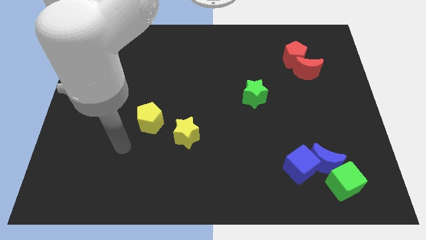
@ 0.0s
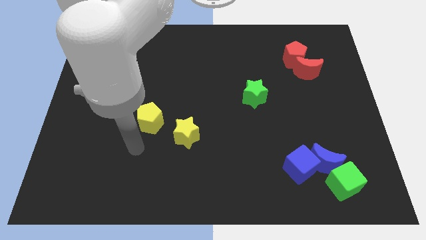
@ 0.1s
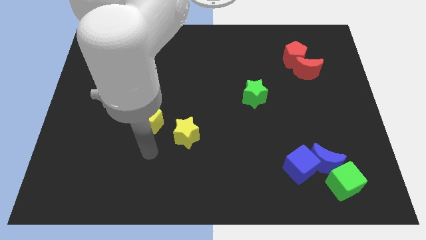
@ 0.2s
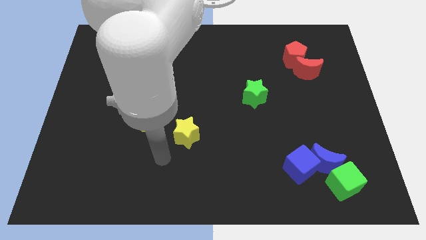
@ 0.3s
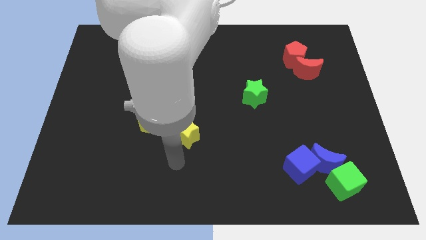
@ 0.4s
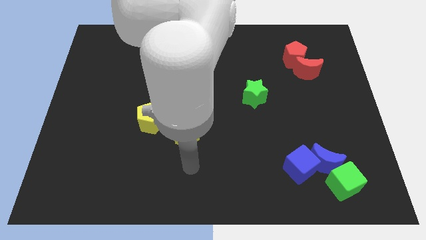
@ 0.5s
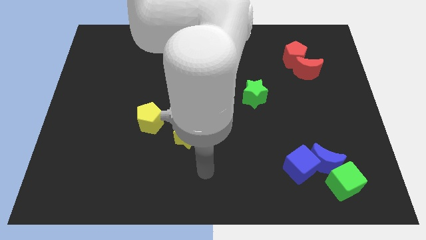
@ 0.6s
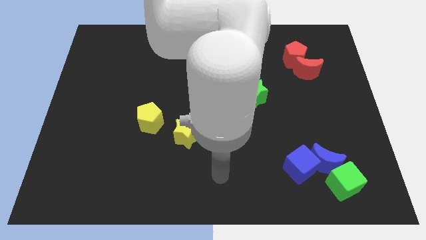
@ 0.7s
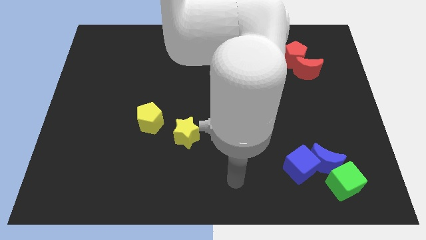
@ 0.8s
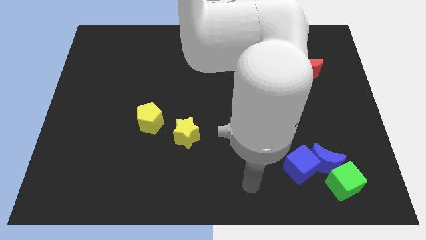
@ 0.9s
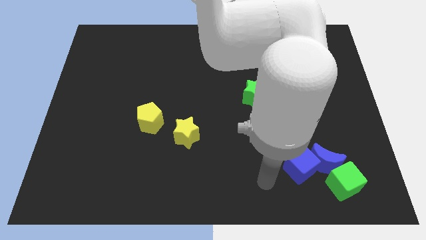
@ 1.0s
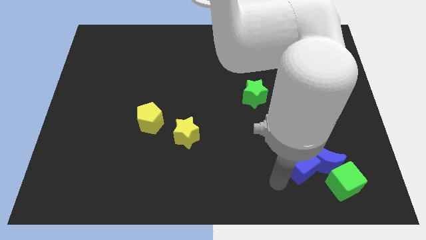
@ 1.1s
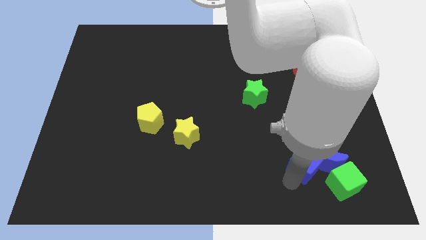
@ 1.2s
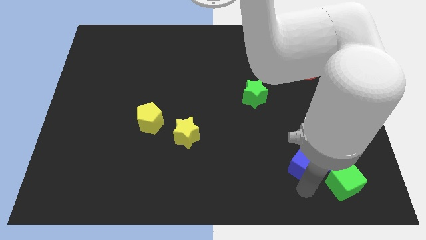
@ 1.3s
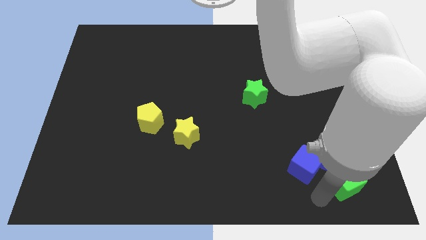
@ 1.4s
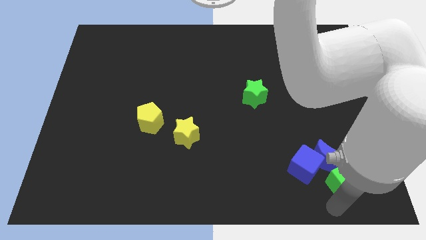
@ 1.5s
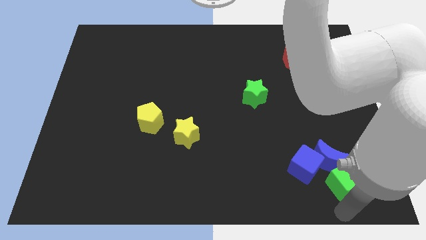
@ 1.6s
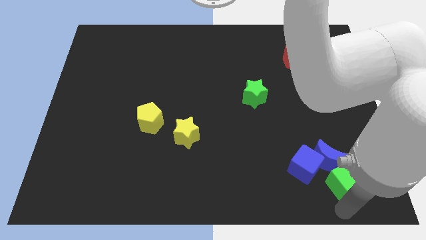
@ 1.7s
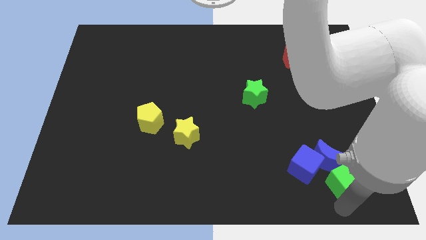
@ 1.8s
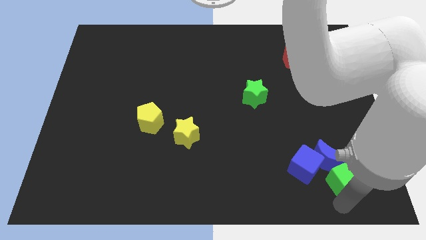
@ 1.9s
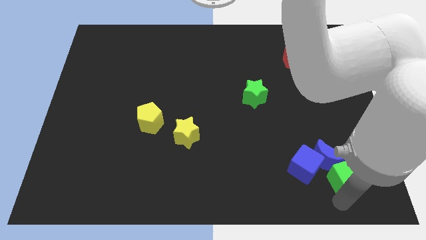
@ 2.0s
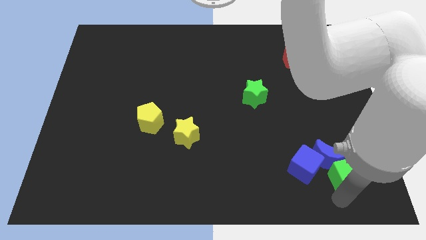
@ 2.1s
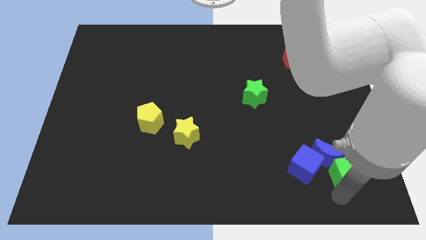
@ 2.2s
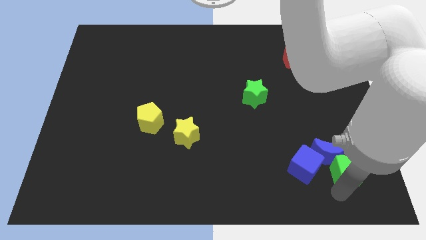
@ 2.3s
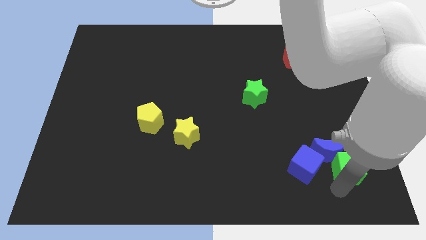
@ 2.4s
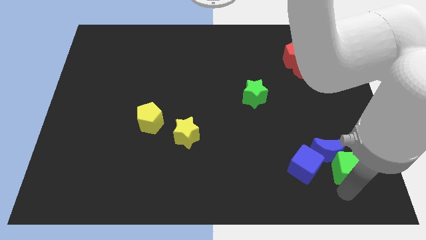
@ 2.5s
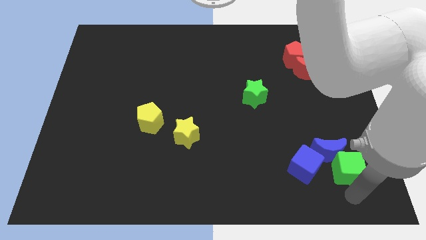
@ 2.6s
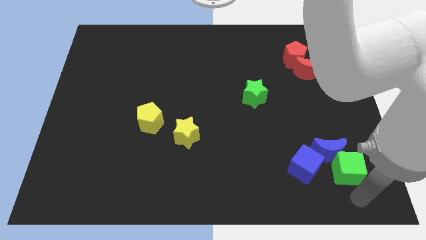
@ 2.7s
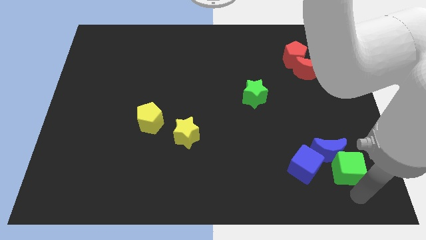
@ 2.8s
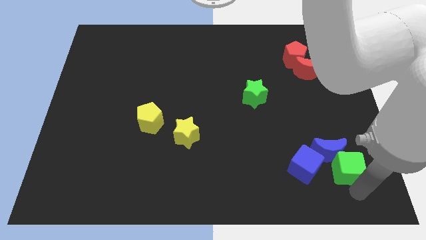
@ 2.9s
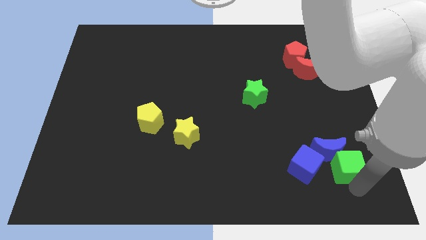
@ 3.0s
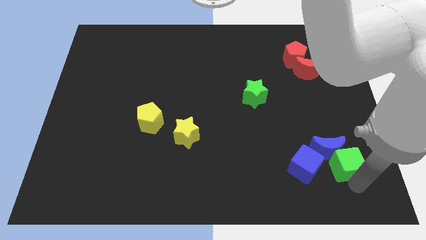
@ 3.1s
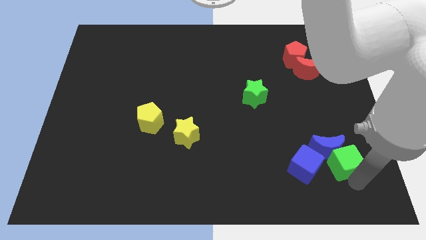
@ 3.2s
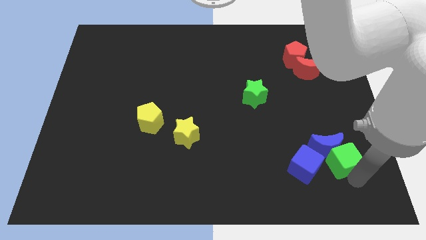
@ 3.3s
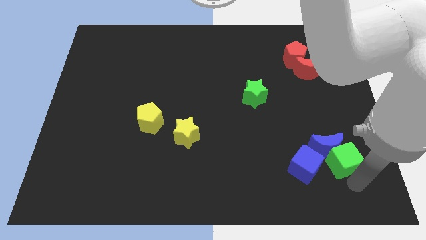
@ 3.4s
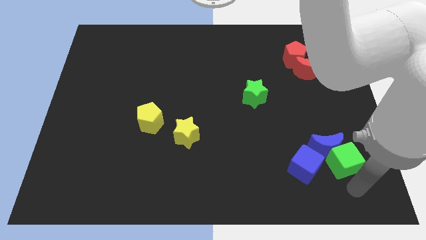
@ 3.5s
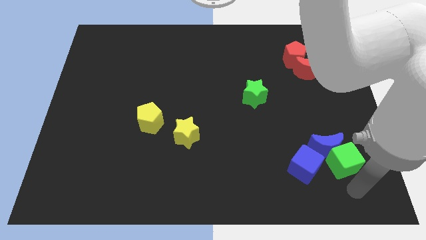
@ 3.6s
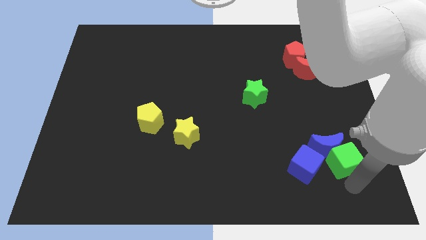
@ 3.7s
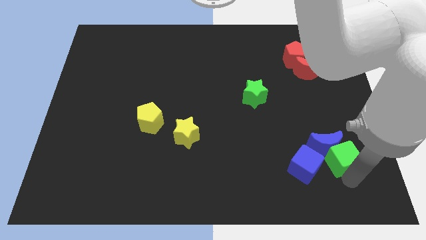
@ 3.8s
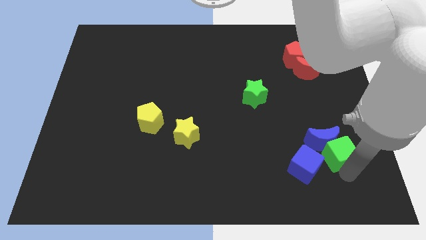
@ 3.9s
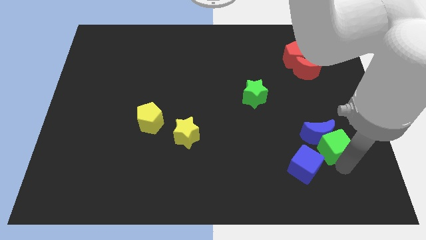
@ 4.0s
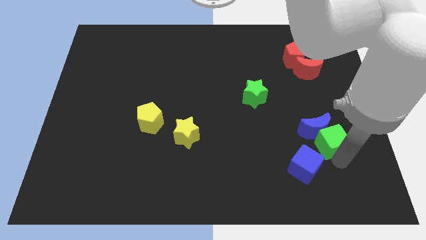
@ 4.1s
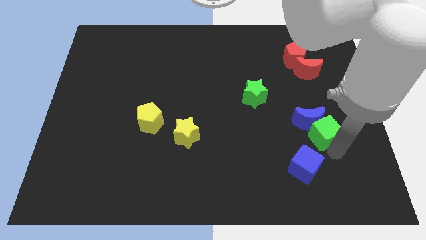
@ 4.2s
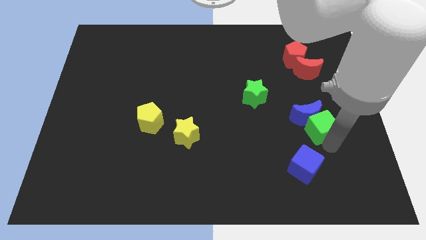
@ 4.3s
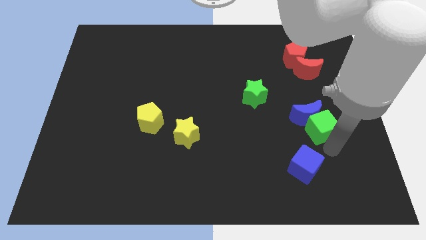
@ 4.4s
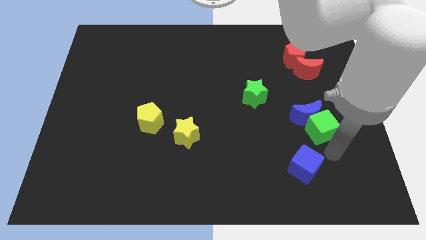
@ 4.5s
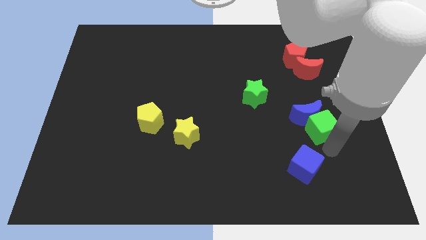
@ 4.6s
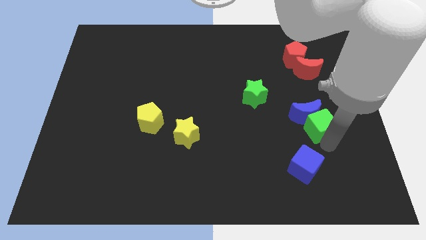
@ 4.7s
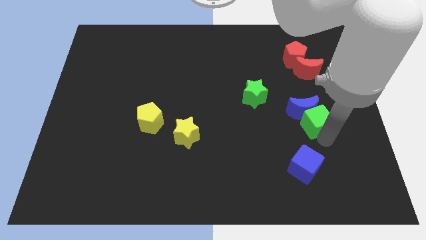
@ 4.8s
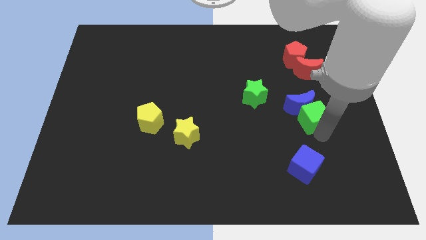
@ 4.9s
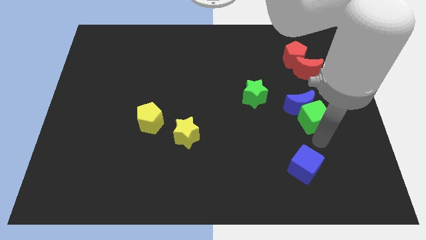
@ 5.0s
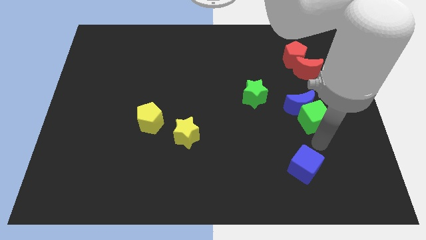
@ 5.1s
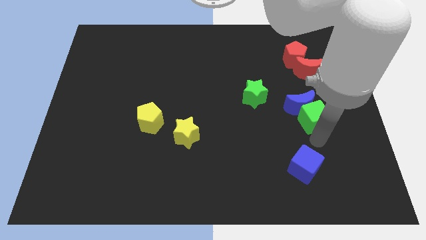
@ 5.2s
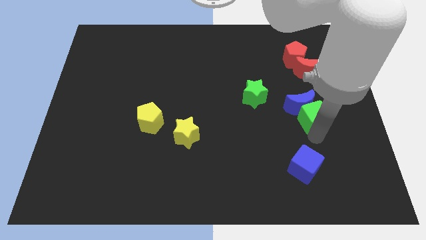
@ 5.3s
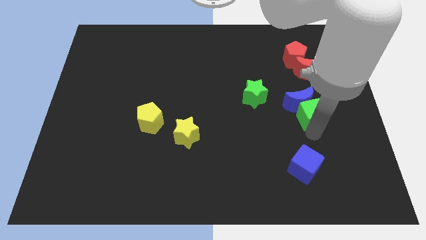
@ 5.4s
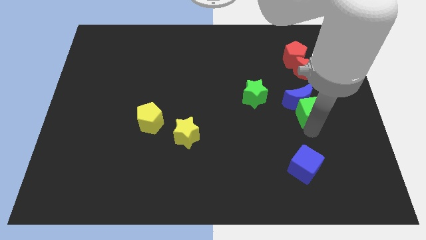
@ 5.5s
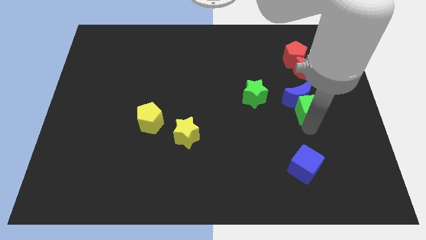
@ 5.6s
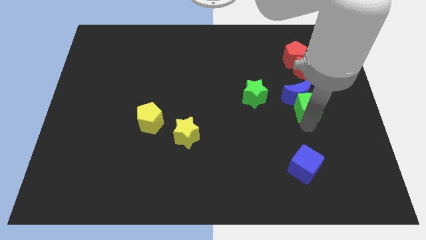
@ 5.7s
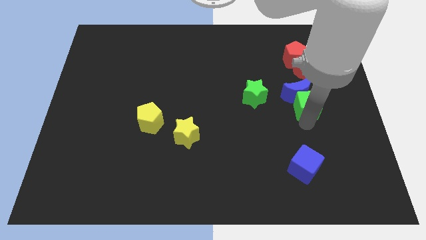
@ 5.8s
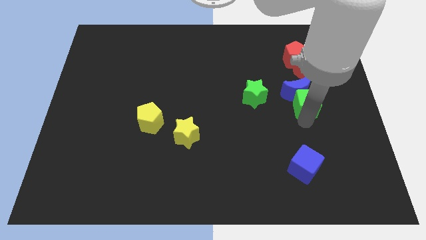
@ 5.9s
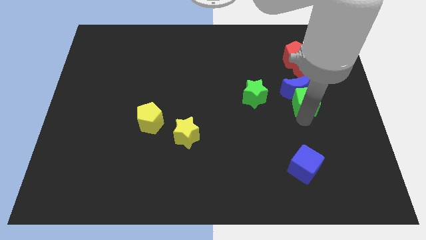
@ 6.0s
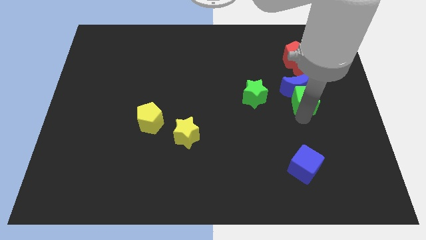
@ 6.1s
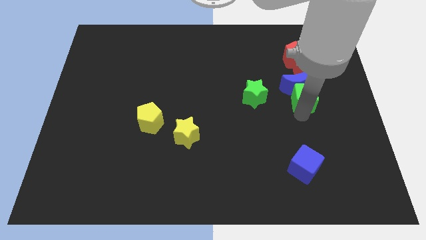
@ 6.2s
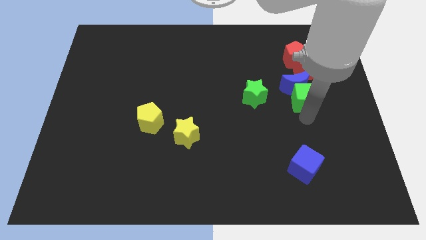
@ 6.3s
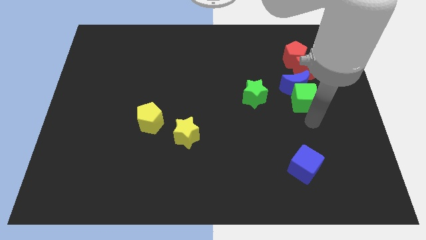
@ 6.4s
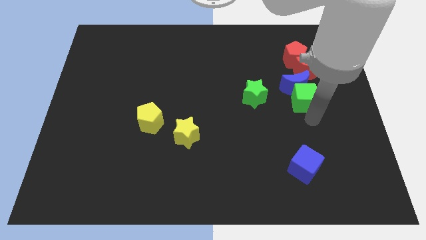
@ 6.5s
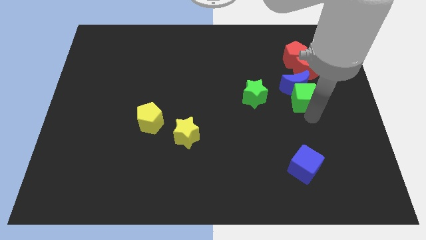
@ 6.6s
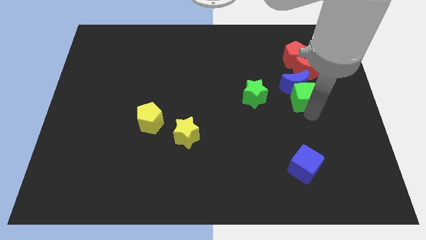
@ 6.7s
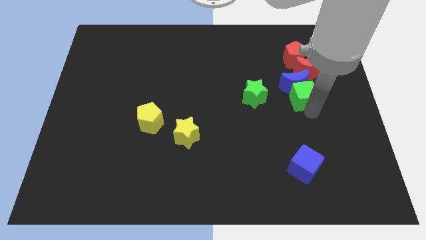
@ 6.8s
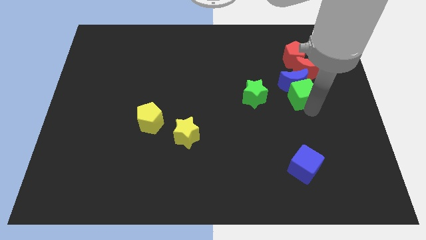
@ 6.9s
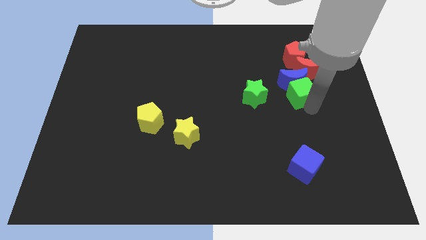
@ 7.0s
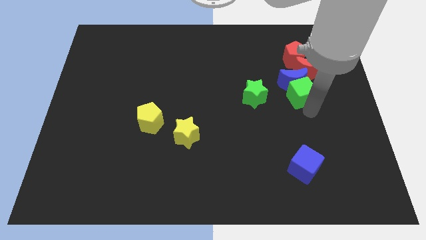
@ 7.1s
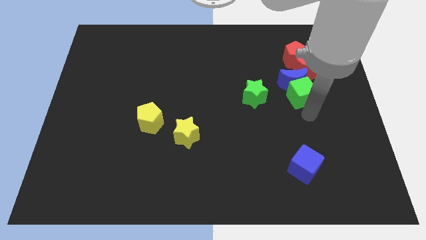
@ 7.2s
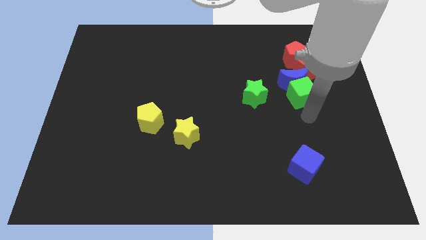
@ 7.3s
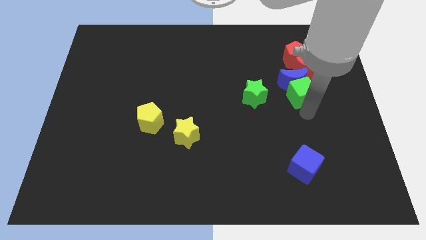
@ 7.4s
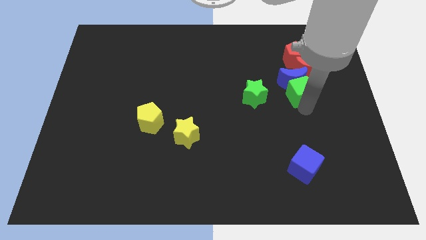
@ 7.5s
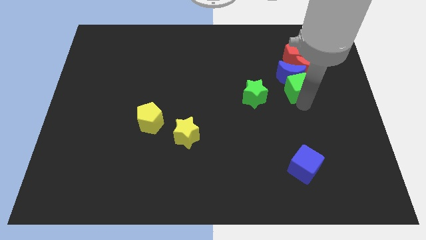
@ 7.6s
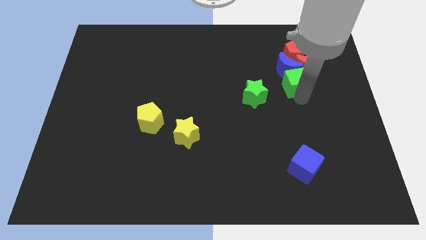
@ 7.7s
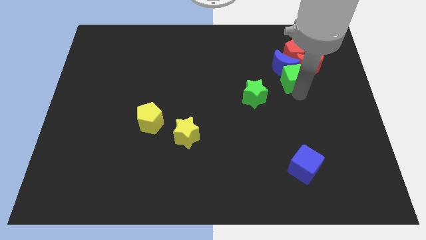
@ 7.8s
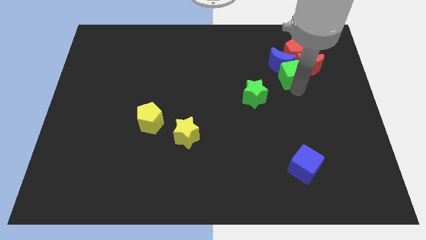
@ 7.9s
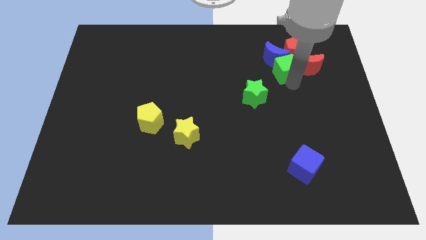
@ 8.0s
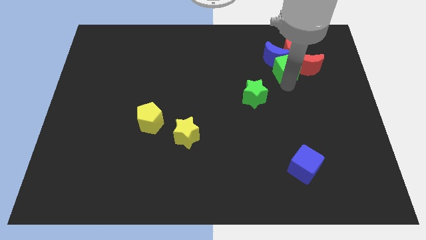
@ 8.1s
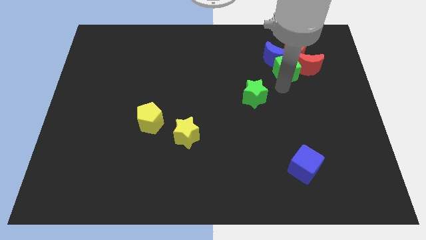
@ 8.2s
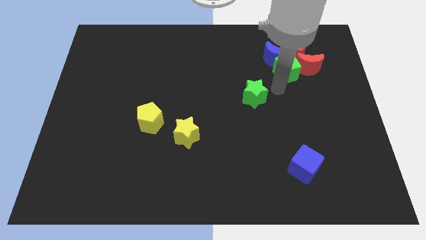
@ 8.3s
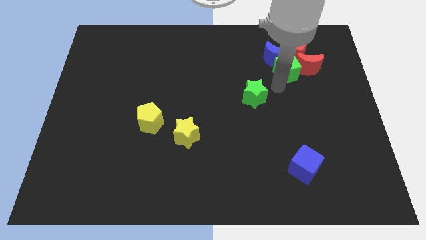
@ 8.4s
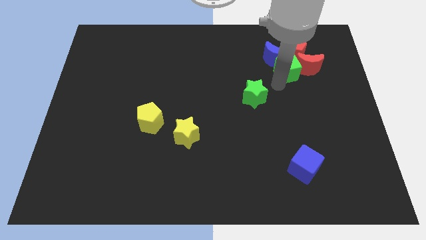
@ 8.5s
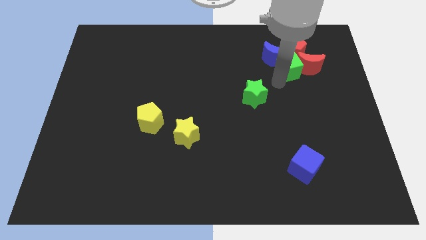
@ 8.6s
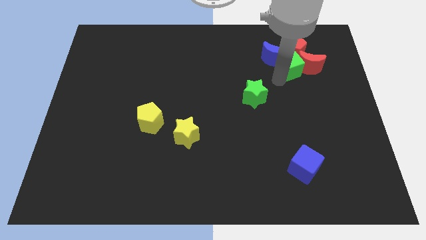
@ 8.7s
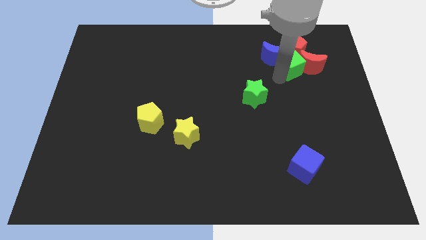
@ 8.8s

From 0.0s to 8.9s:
put the green cube next to the red pentagon
